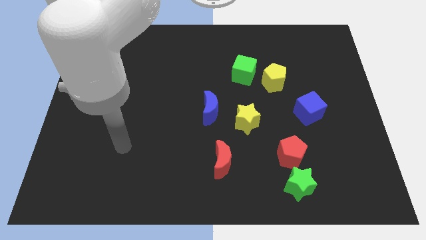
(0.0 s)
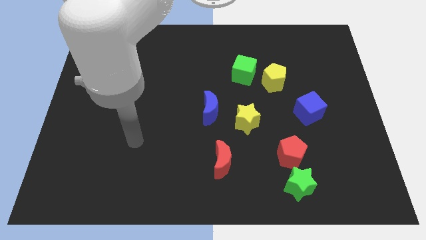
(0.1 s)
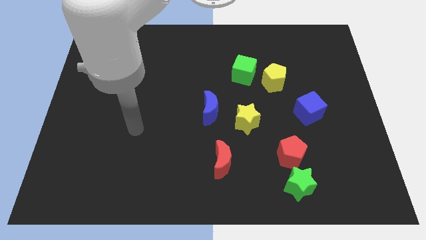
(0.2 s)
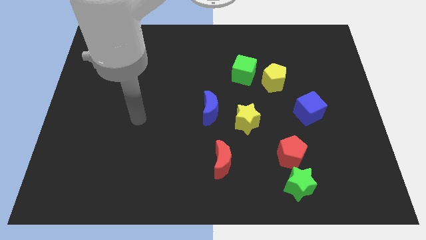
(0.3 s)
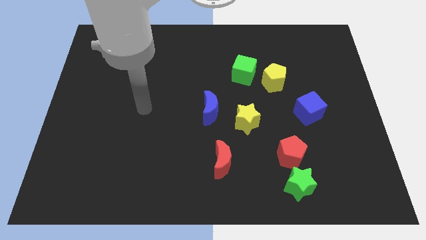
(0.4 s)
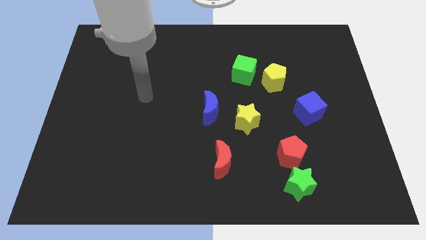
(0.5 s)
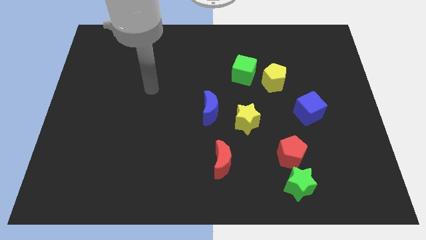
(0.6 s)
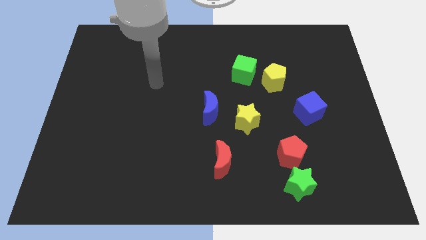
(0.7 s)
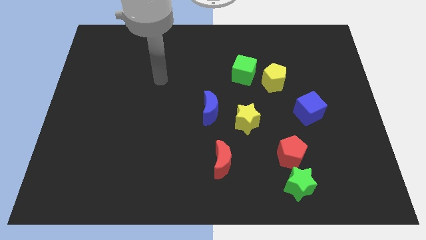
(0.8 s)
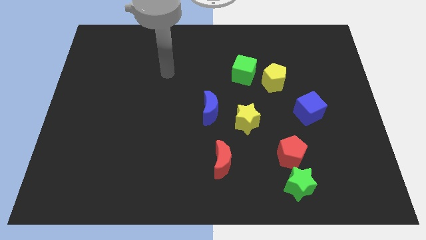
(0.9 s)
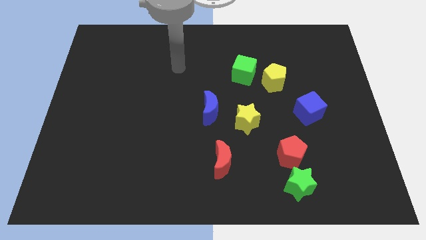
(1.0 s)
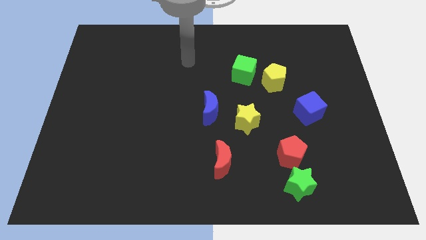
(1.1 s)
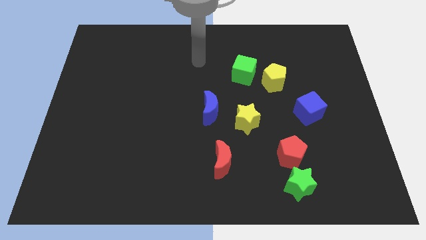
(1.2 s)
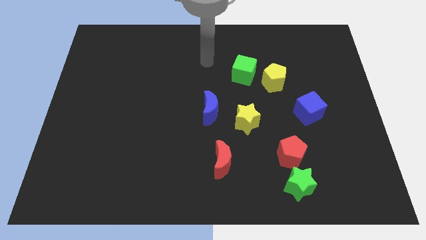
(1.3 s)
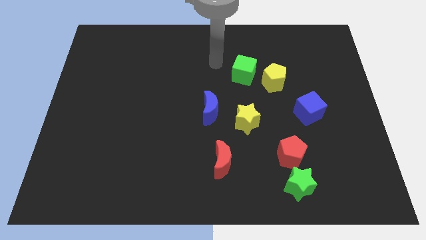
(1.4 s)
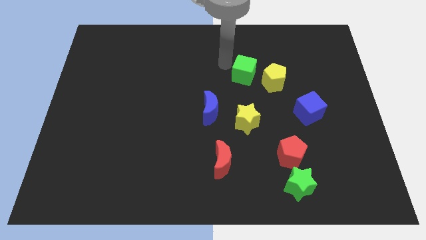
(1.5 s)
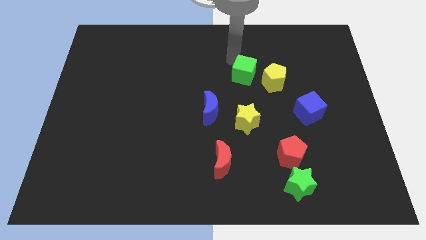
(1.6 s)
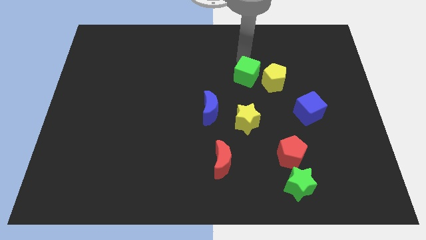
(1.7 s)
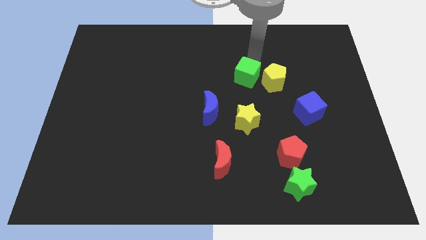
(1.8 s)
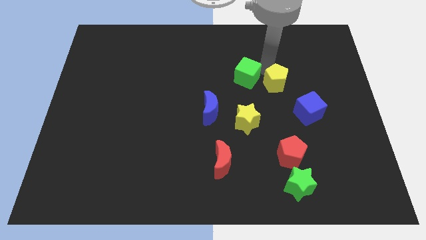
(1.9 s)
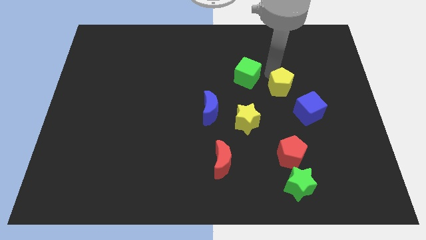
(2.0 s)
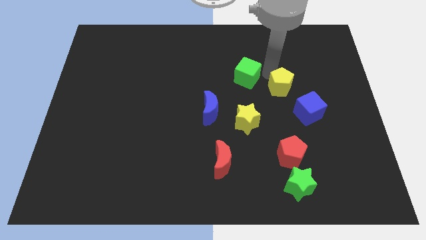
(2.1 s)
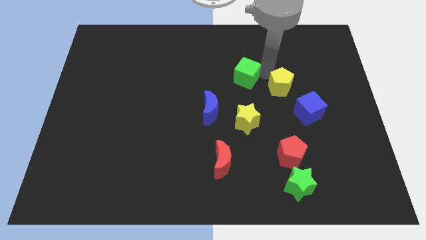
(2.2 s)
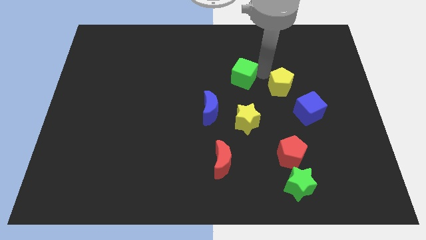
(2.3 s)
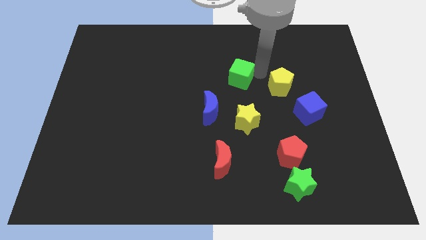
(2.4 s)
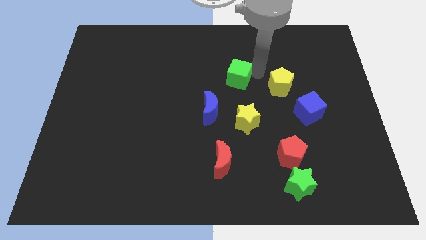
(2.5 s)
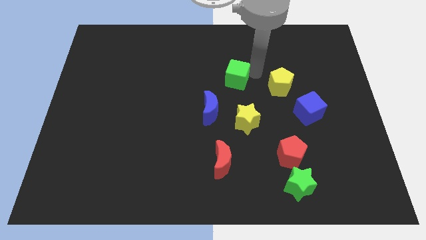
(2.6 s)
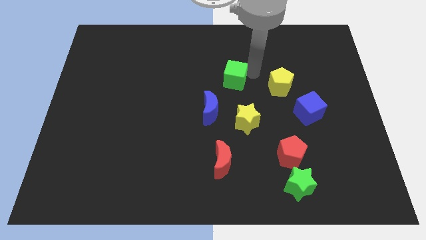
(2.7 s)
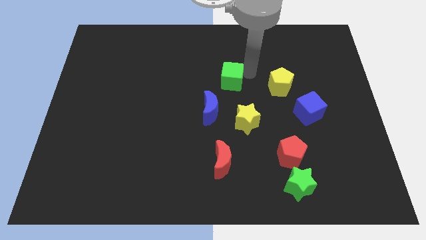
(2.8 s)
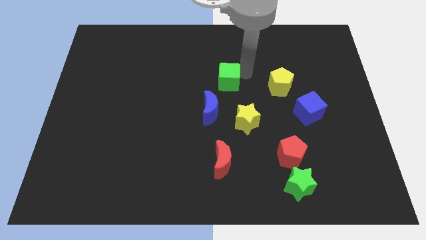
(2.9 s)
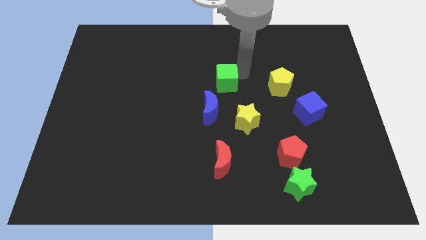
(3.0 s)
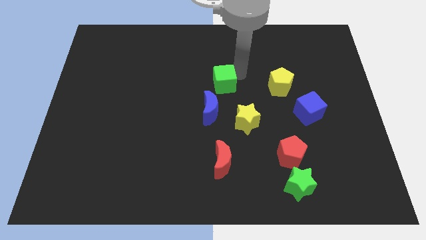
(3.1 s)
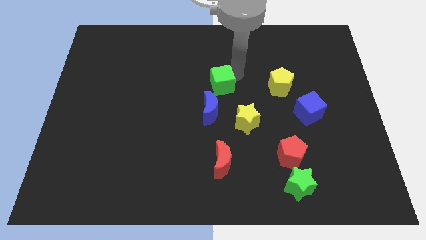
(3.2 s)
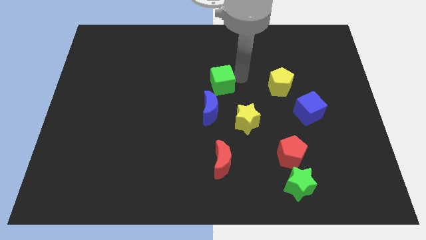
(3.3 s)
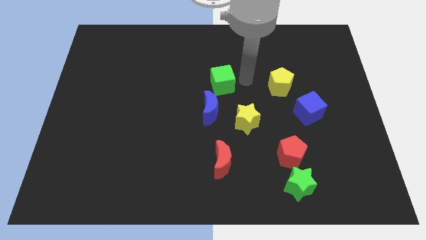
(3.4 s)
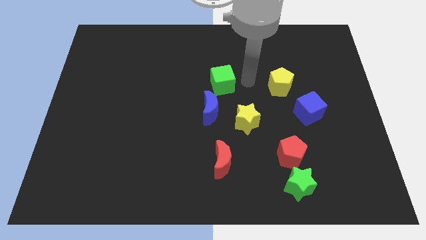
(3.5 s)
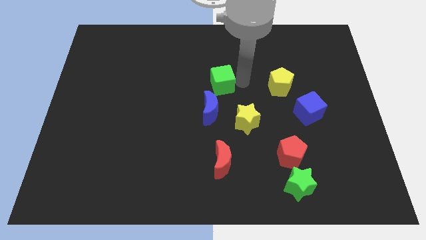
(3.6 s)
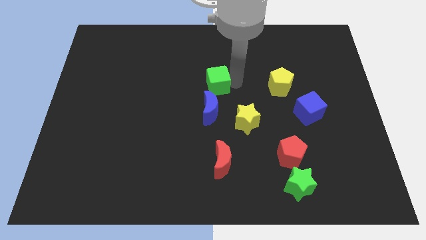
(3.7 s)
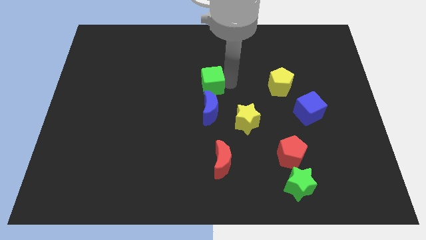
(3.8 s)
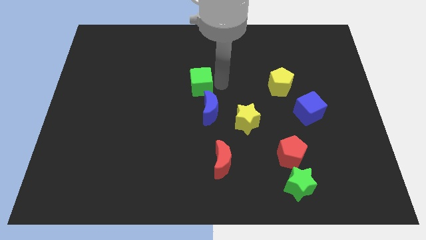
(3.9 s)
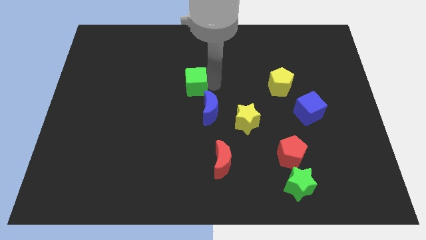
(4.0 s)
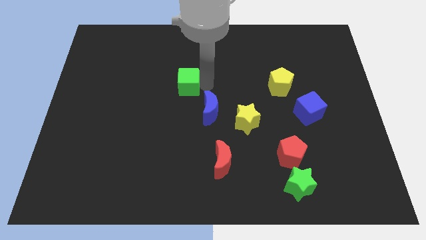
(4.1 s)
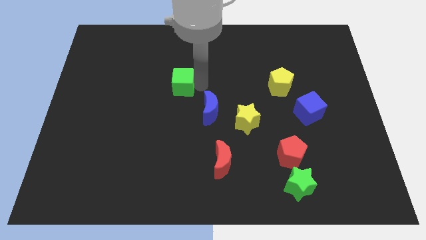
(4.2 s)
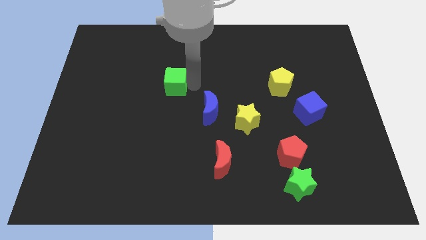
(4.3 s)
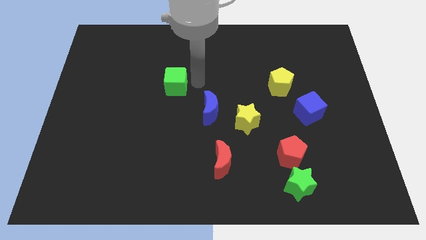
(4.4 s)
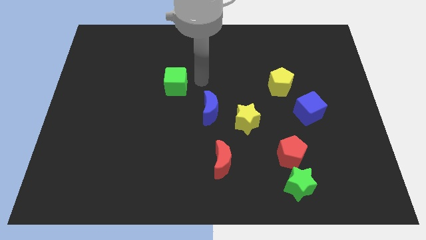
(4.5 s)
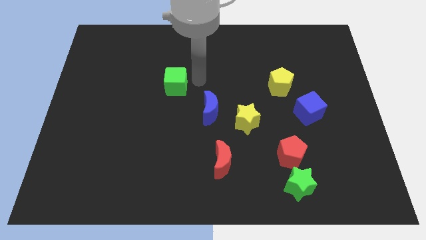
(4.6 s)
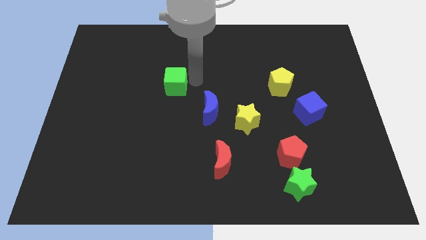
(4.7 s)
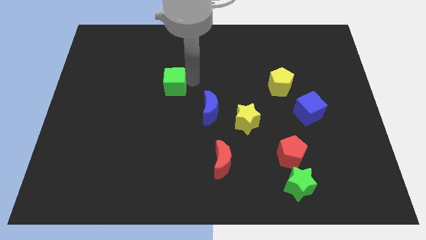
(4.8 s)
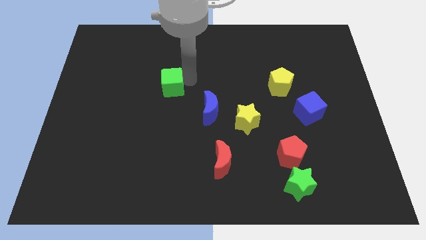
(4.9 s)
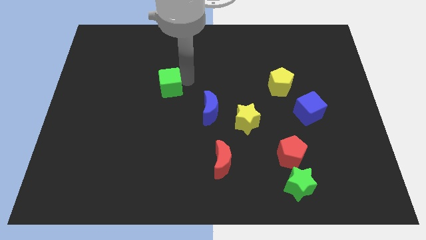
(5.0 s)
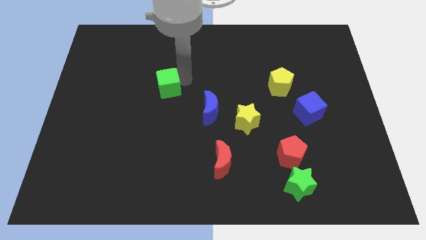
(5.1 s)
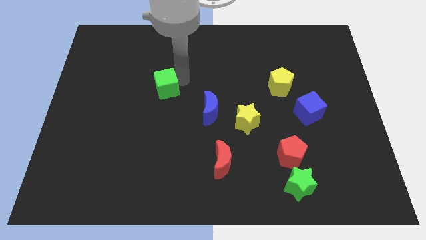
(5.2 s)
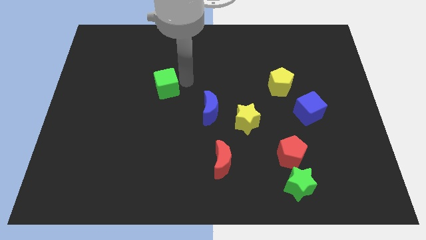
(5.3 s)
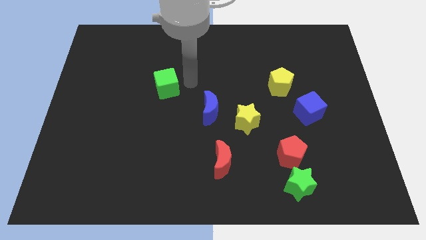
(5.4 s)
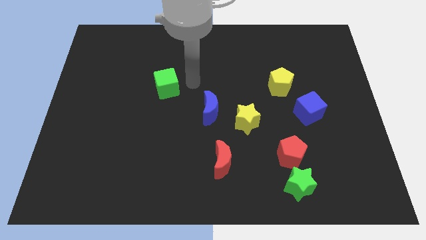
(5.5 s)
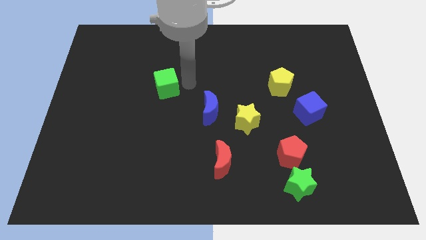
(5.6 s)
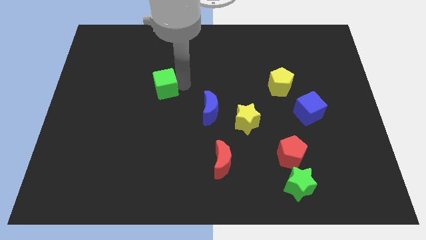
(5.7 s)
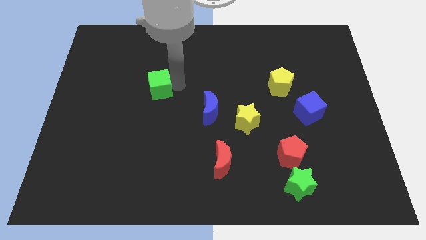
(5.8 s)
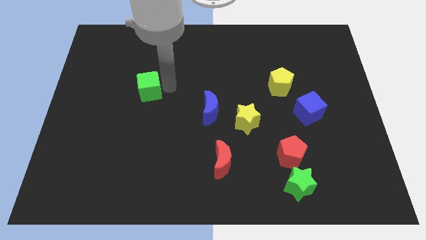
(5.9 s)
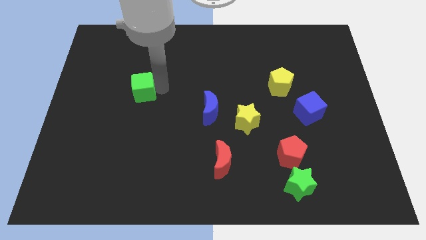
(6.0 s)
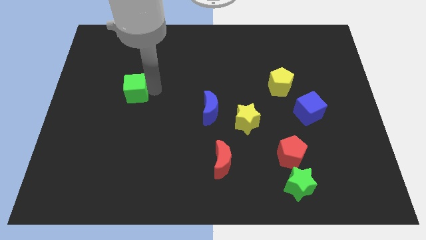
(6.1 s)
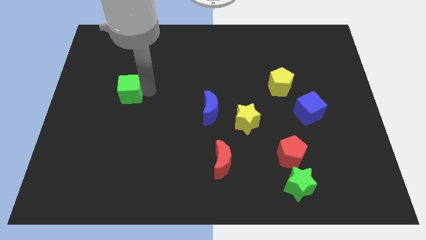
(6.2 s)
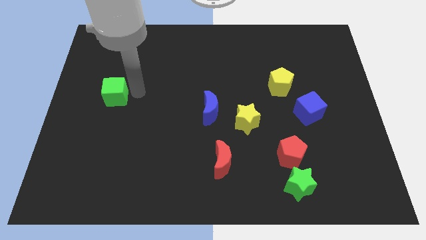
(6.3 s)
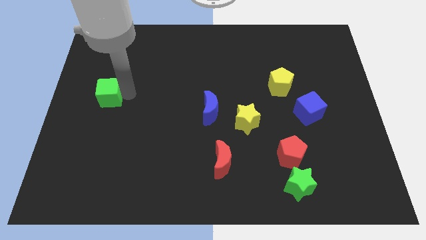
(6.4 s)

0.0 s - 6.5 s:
move the green cube to the left side of the board
